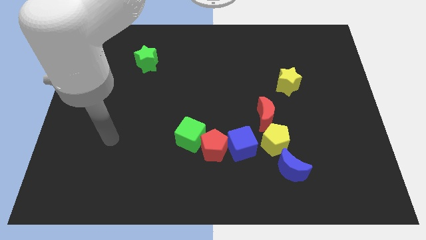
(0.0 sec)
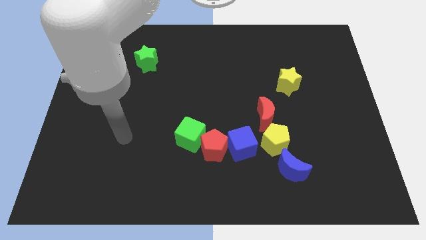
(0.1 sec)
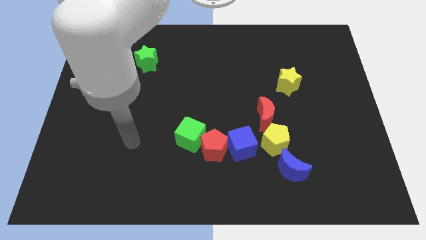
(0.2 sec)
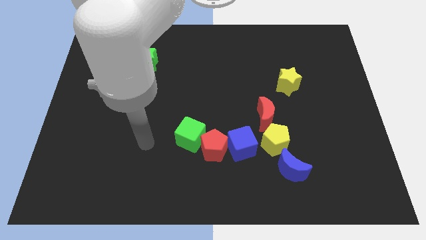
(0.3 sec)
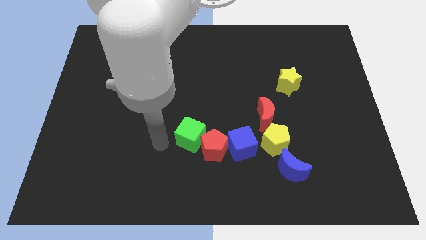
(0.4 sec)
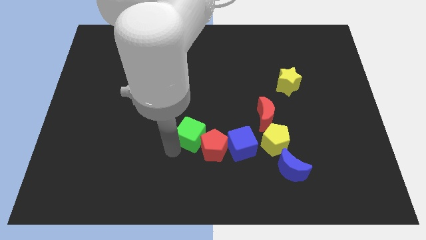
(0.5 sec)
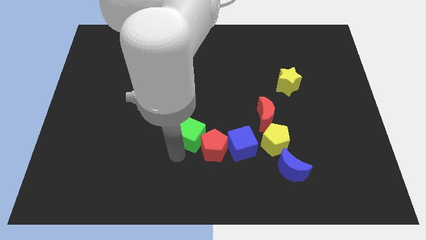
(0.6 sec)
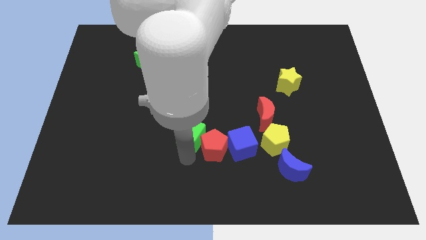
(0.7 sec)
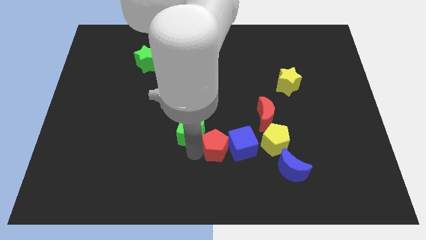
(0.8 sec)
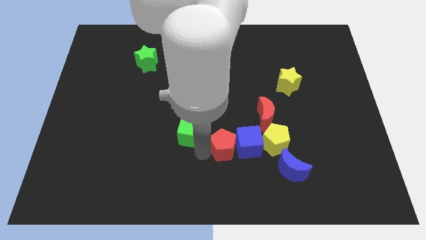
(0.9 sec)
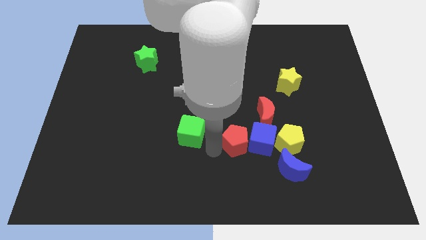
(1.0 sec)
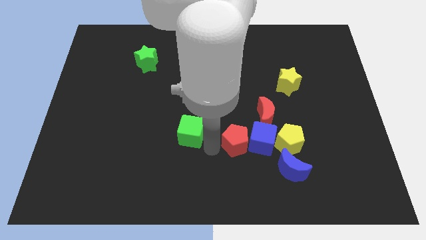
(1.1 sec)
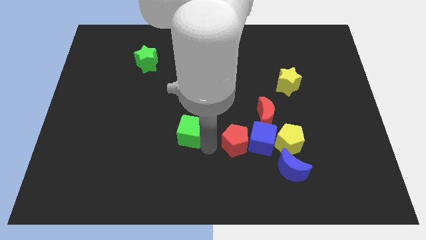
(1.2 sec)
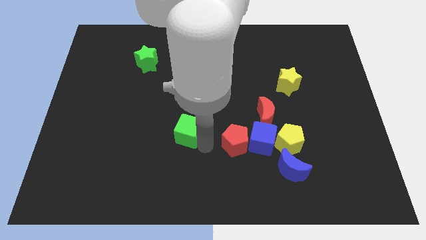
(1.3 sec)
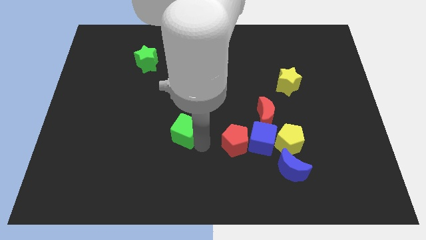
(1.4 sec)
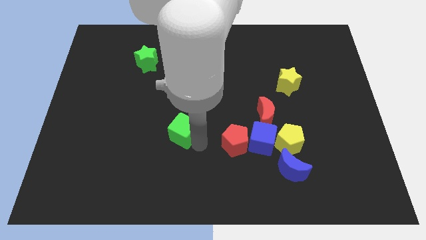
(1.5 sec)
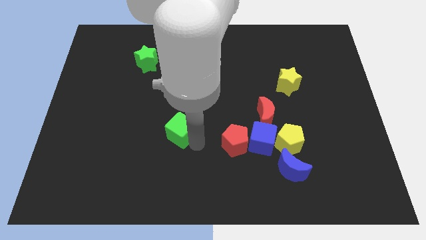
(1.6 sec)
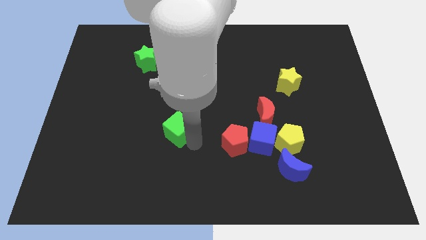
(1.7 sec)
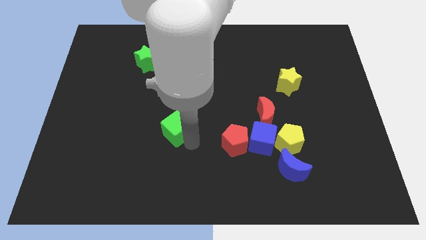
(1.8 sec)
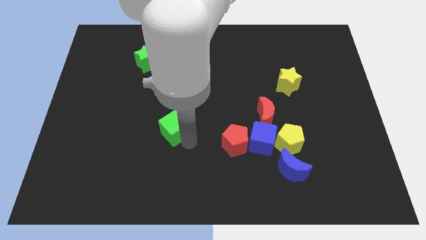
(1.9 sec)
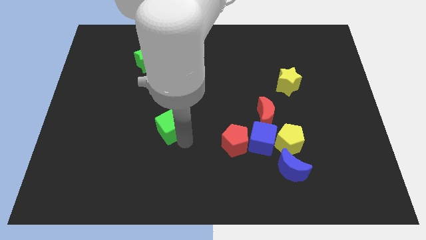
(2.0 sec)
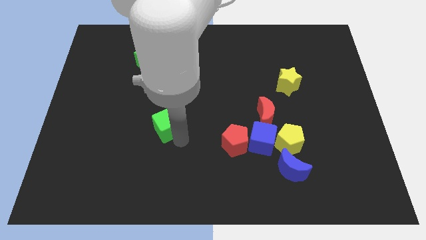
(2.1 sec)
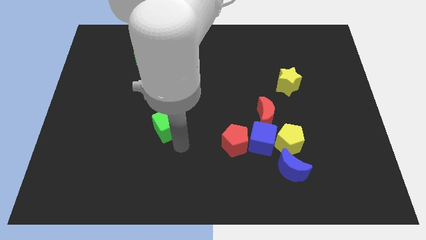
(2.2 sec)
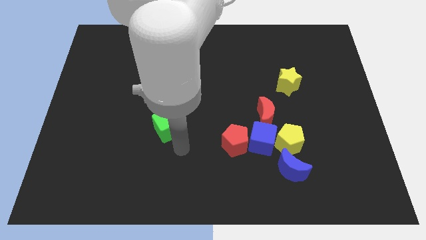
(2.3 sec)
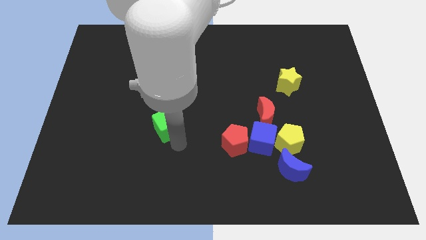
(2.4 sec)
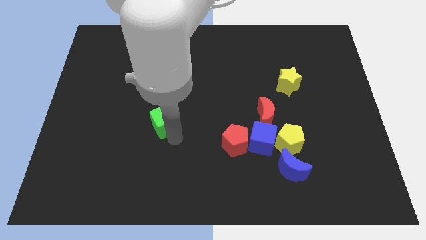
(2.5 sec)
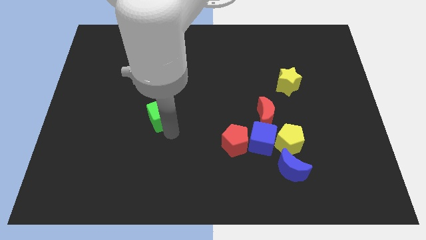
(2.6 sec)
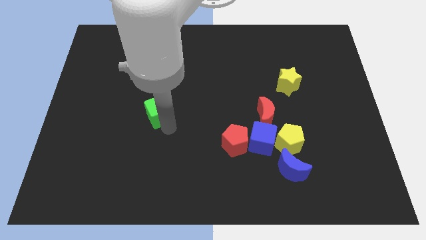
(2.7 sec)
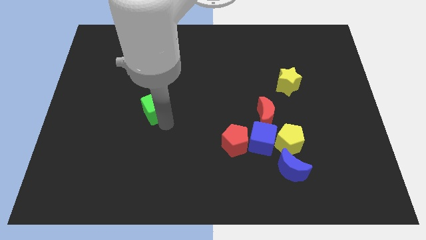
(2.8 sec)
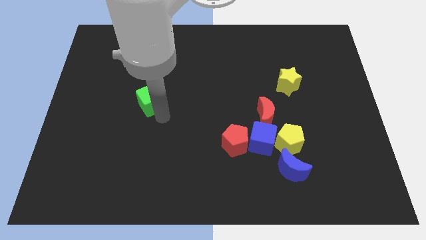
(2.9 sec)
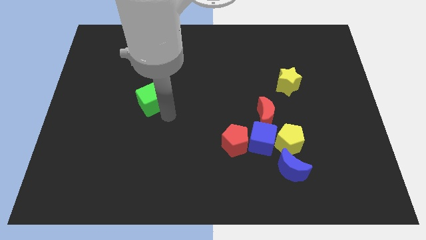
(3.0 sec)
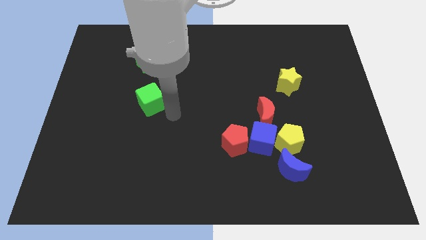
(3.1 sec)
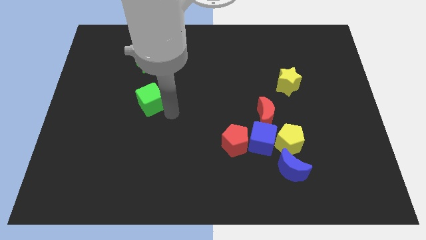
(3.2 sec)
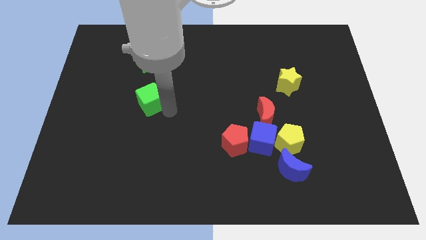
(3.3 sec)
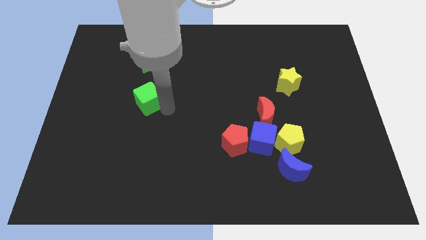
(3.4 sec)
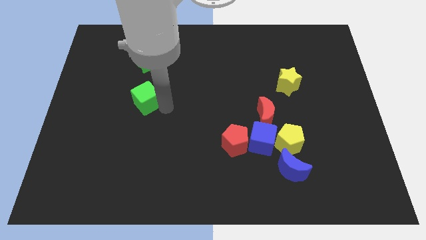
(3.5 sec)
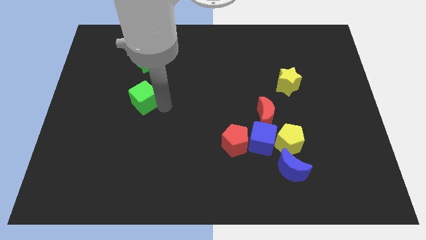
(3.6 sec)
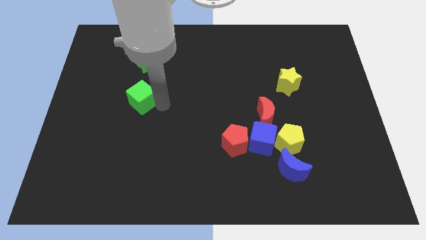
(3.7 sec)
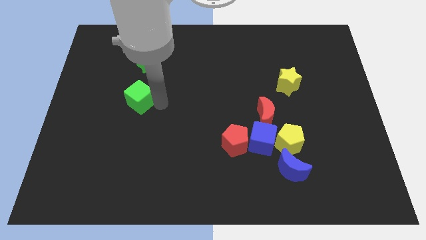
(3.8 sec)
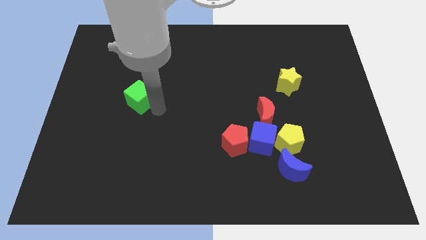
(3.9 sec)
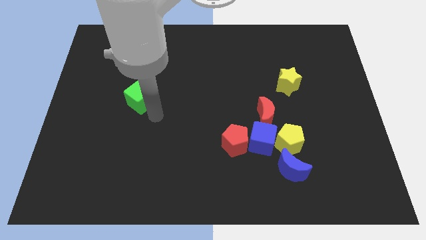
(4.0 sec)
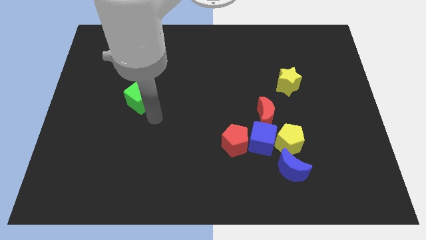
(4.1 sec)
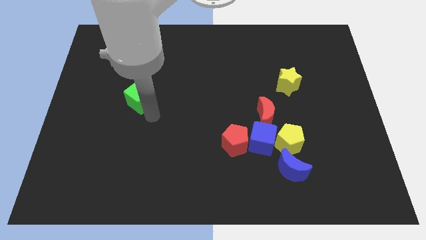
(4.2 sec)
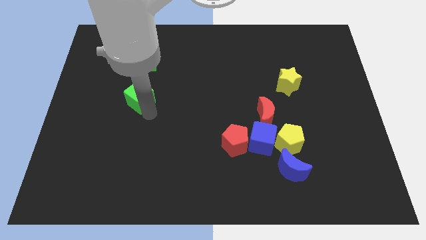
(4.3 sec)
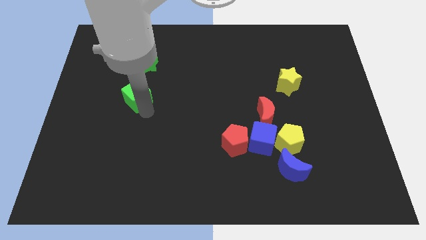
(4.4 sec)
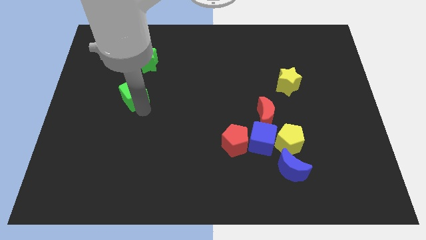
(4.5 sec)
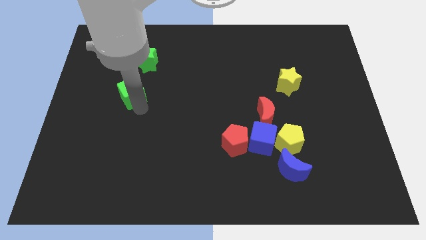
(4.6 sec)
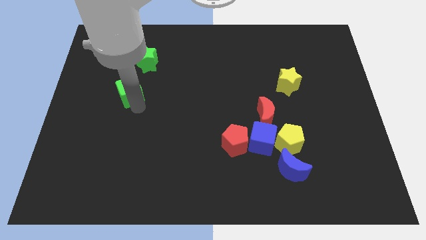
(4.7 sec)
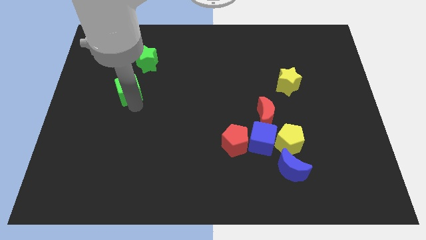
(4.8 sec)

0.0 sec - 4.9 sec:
move the green cube to the bottom left side of the green star

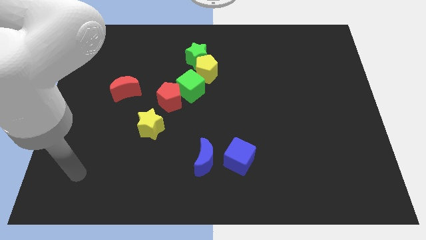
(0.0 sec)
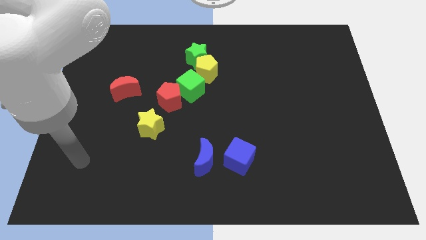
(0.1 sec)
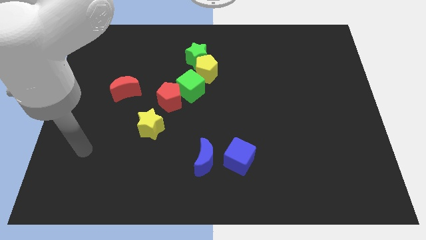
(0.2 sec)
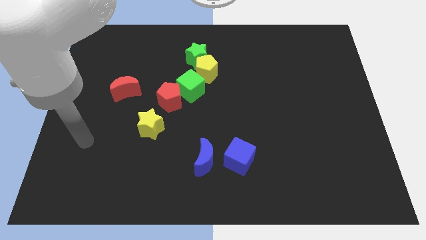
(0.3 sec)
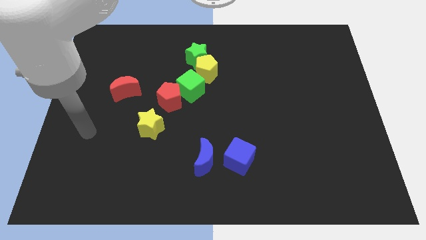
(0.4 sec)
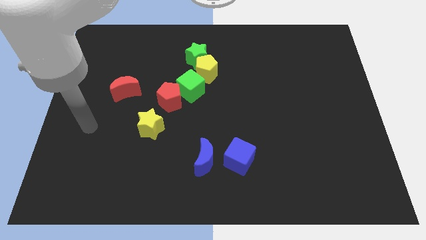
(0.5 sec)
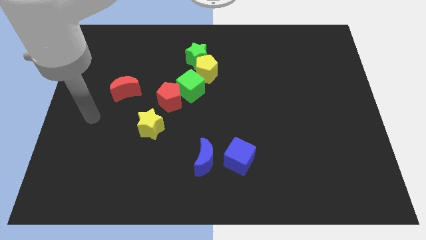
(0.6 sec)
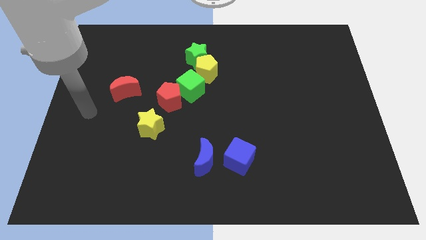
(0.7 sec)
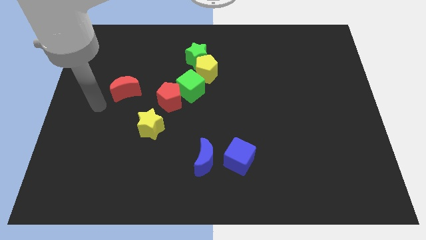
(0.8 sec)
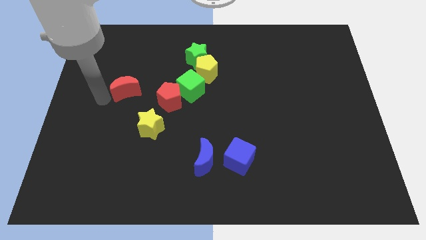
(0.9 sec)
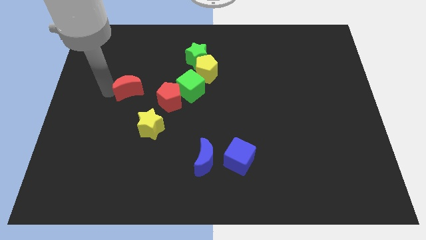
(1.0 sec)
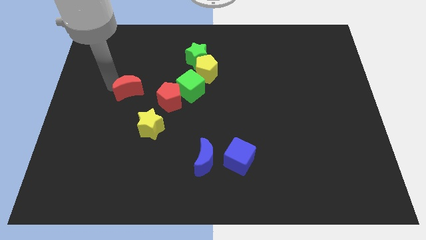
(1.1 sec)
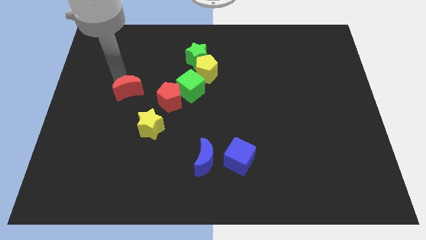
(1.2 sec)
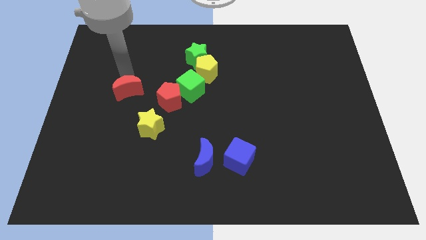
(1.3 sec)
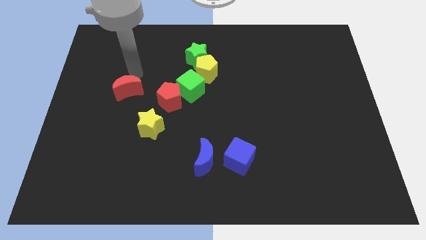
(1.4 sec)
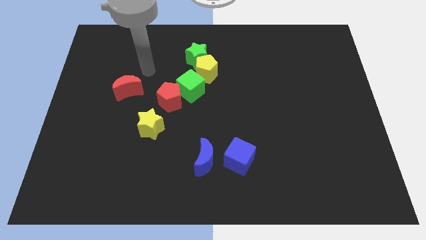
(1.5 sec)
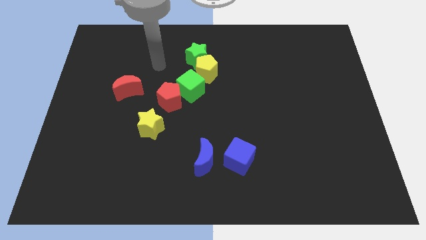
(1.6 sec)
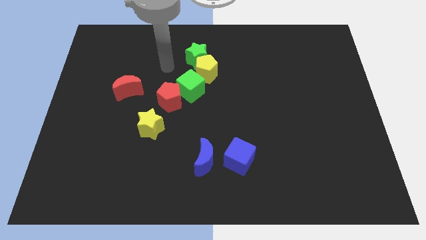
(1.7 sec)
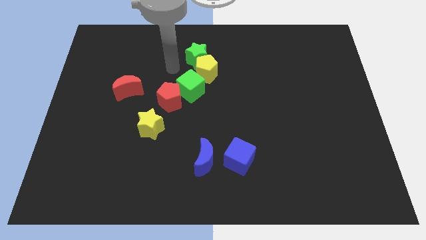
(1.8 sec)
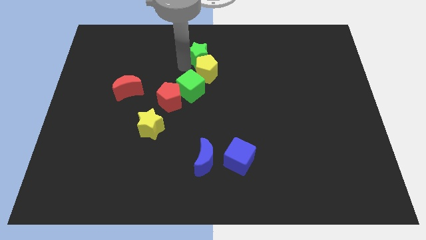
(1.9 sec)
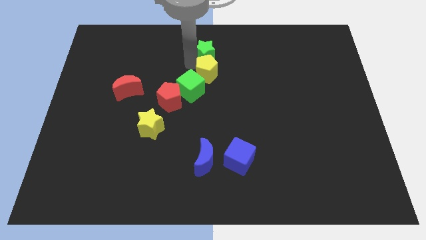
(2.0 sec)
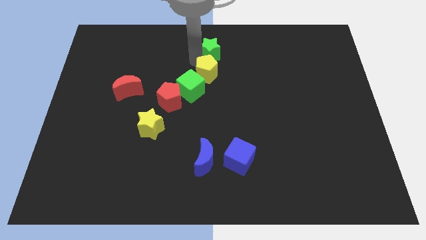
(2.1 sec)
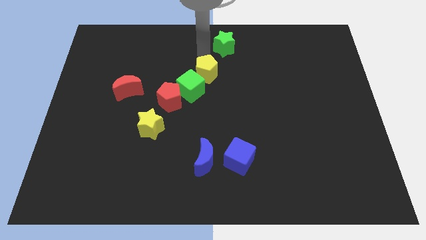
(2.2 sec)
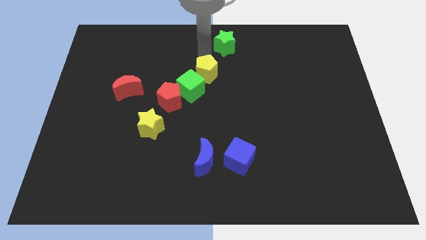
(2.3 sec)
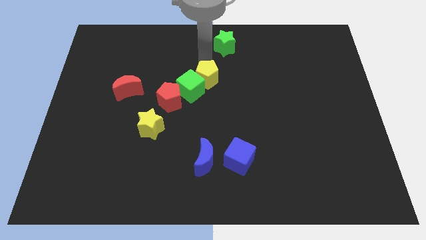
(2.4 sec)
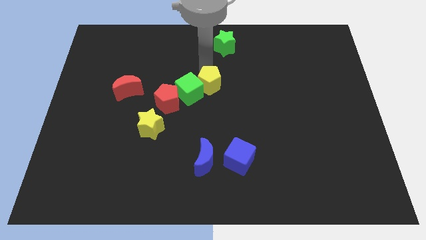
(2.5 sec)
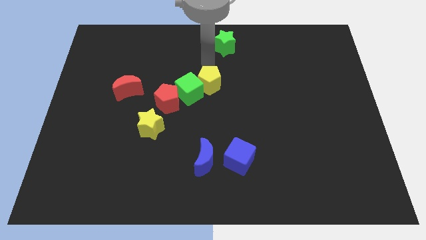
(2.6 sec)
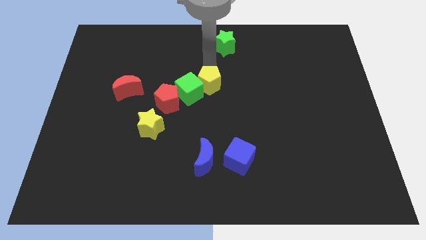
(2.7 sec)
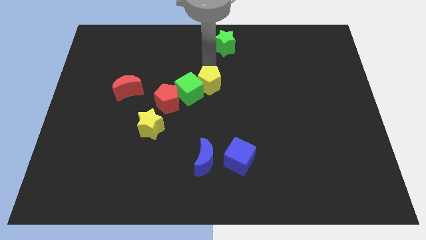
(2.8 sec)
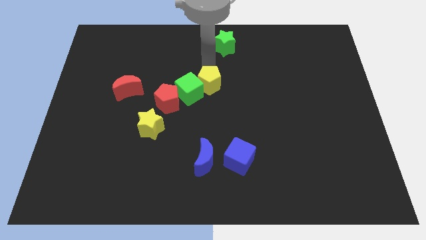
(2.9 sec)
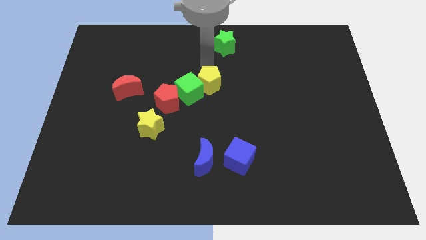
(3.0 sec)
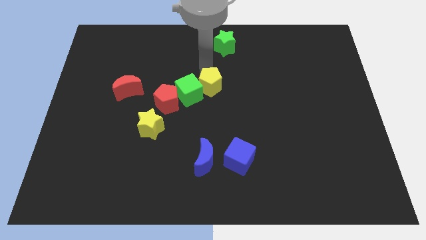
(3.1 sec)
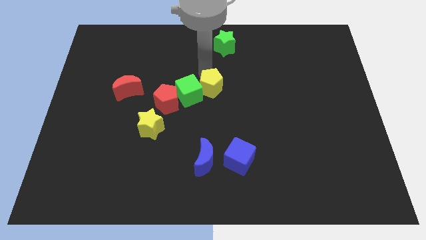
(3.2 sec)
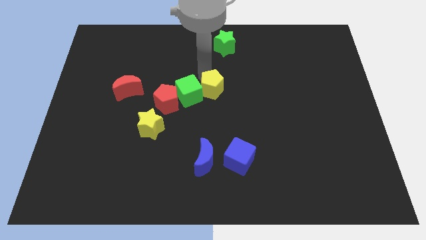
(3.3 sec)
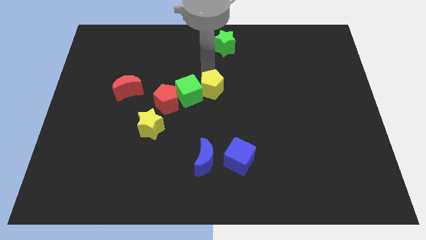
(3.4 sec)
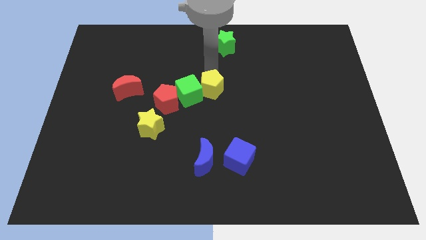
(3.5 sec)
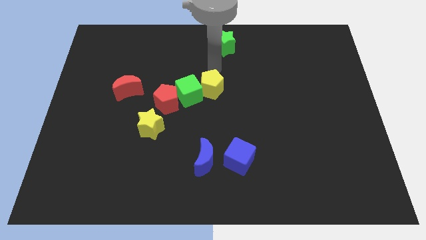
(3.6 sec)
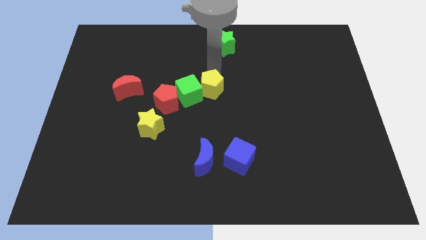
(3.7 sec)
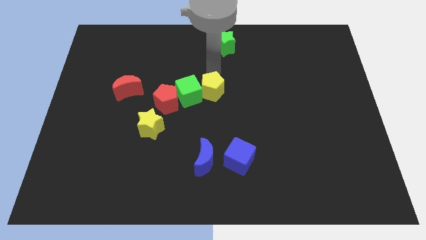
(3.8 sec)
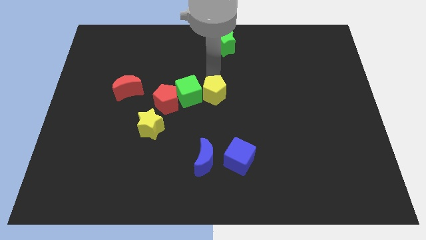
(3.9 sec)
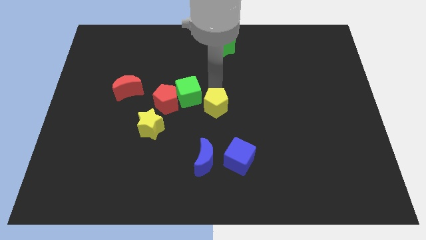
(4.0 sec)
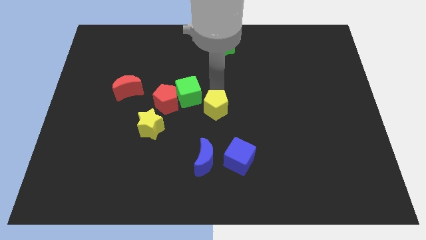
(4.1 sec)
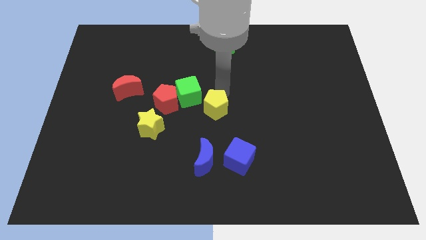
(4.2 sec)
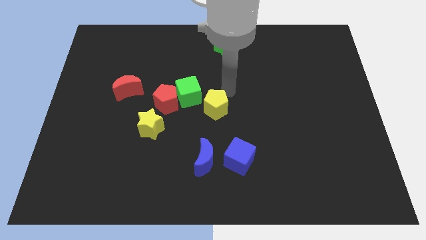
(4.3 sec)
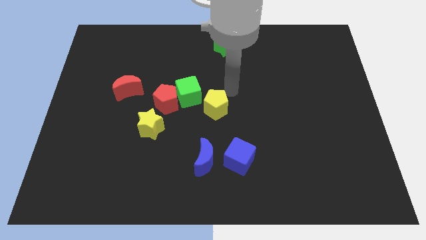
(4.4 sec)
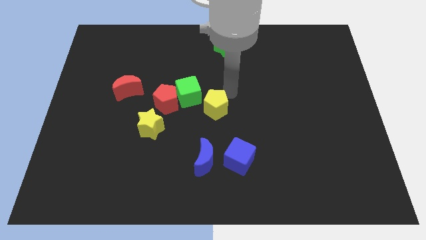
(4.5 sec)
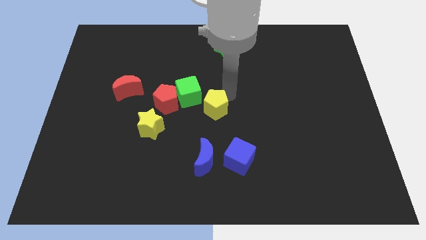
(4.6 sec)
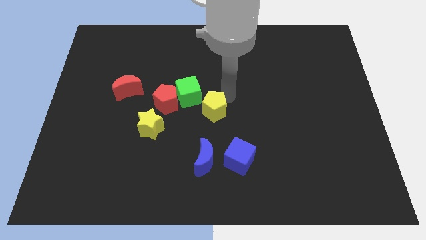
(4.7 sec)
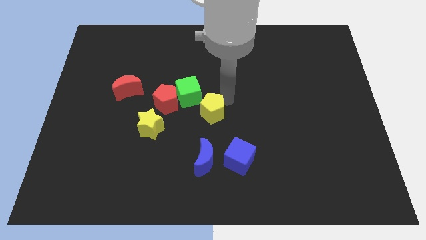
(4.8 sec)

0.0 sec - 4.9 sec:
slide the yellow pentagon right of the yellow star
